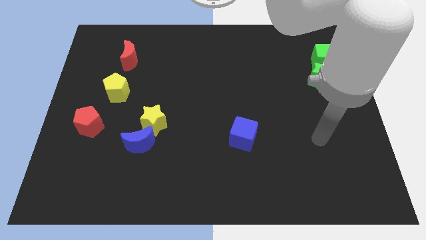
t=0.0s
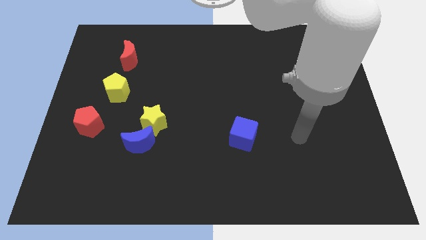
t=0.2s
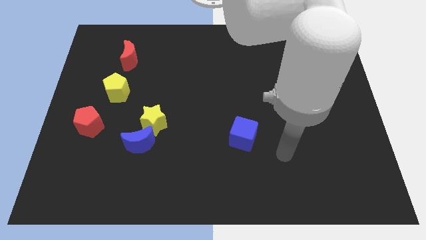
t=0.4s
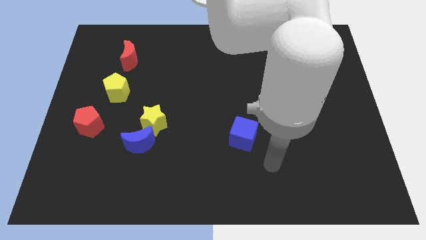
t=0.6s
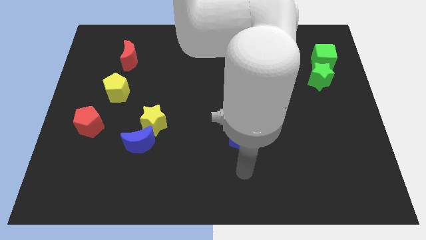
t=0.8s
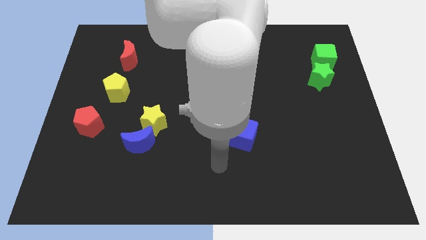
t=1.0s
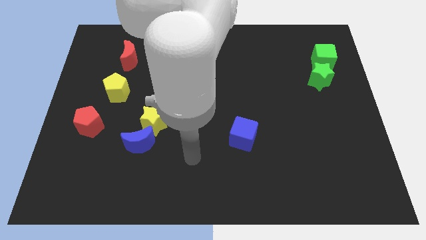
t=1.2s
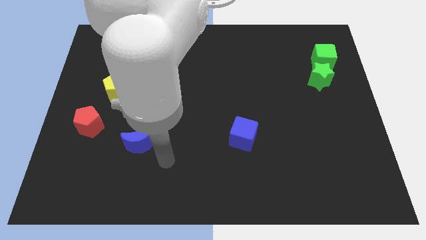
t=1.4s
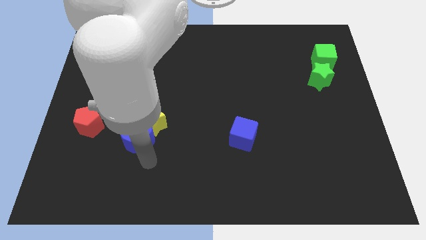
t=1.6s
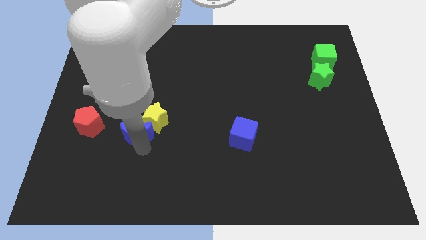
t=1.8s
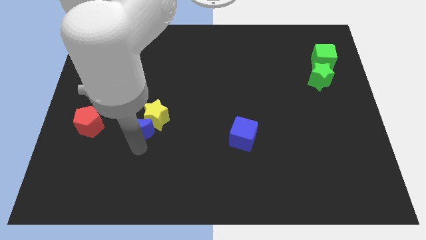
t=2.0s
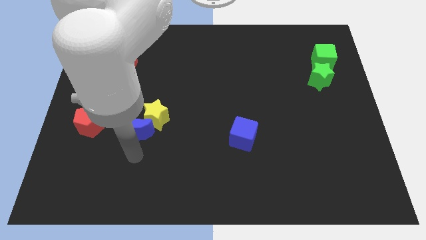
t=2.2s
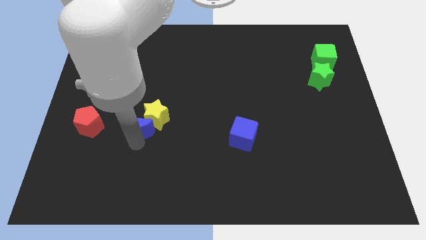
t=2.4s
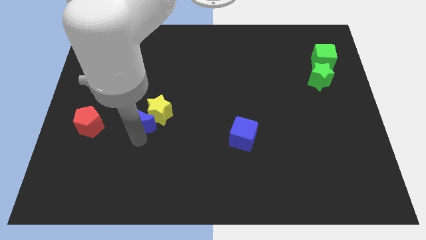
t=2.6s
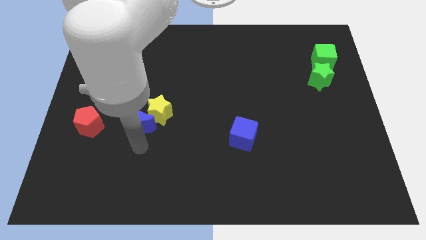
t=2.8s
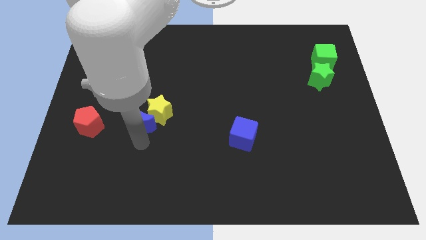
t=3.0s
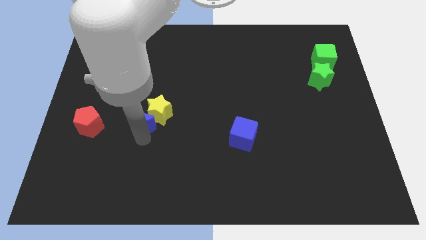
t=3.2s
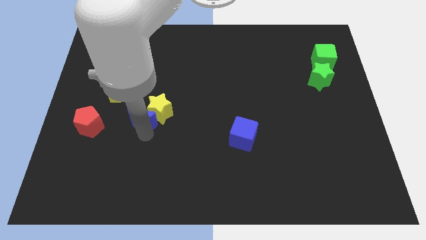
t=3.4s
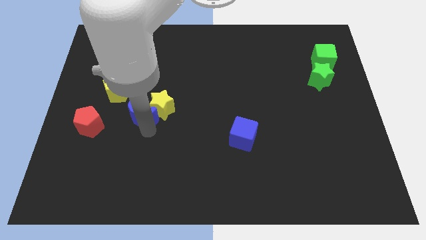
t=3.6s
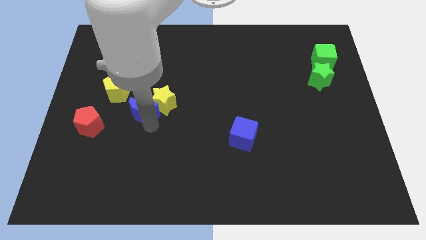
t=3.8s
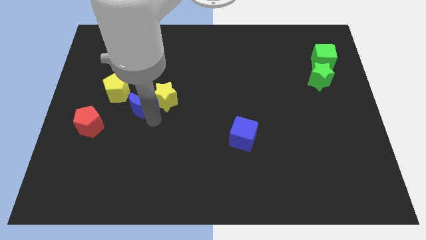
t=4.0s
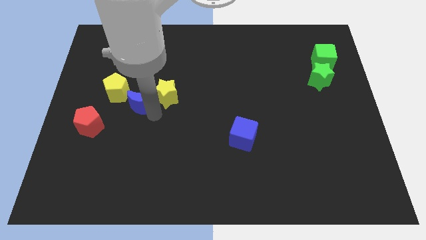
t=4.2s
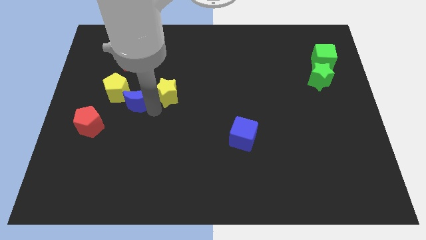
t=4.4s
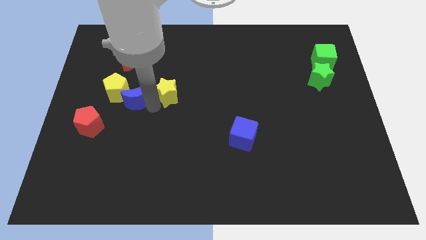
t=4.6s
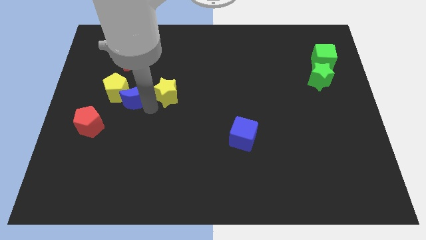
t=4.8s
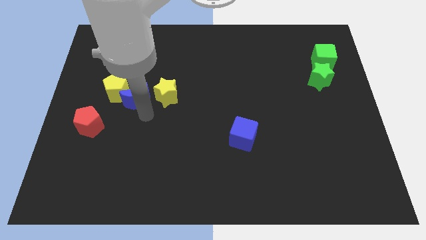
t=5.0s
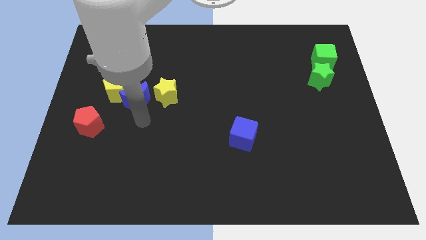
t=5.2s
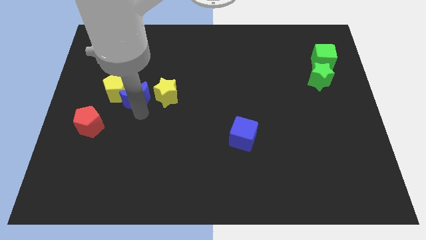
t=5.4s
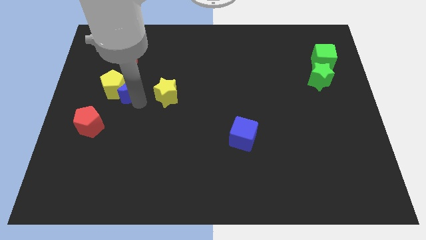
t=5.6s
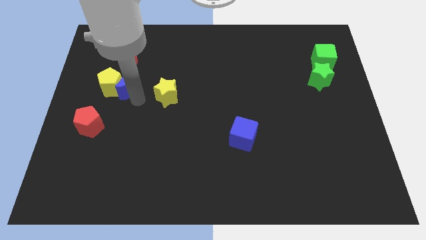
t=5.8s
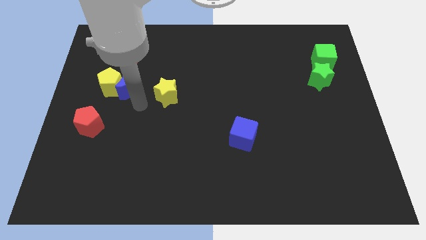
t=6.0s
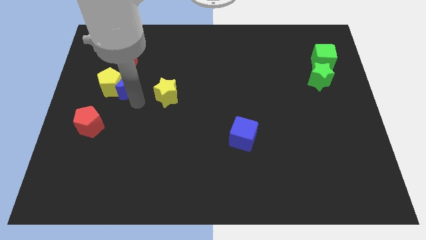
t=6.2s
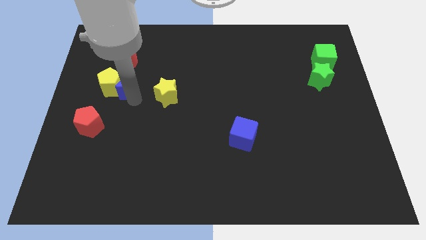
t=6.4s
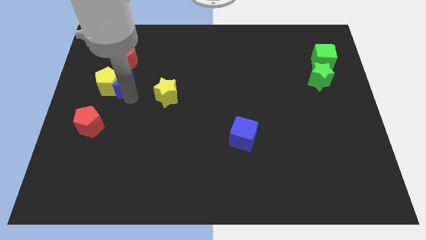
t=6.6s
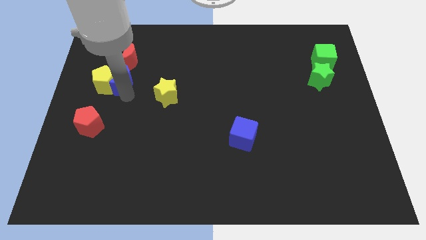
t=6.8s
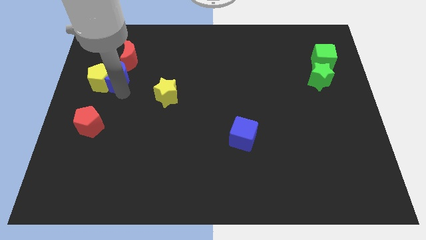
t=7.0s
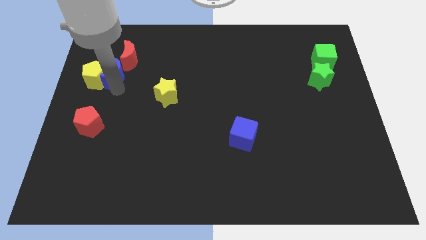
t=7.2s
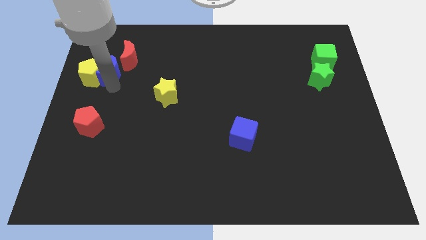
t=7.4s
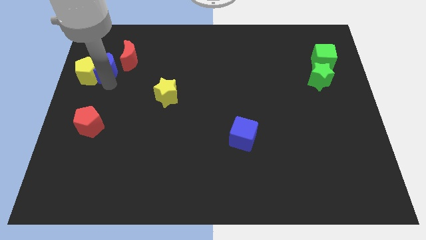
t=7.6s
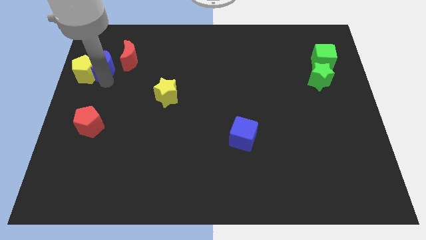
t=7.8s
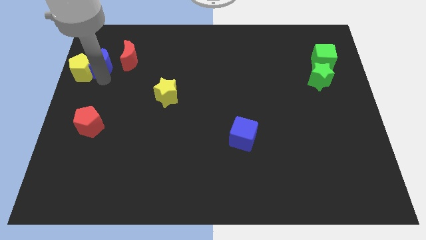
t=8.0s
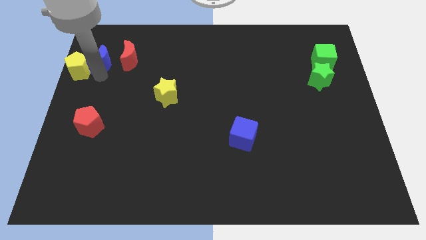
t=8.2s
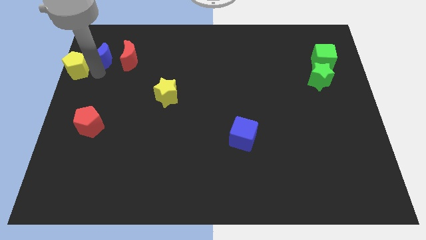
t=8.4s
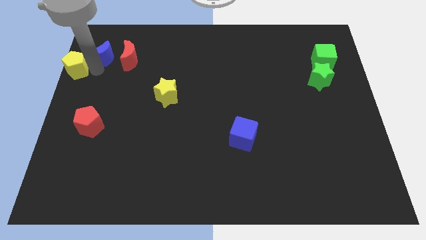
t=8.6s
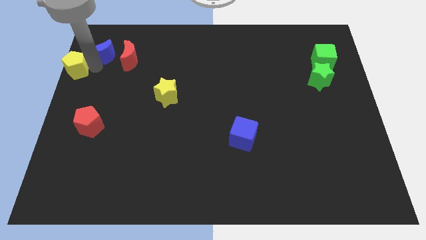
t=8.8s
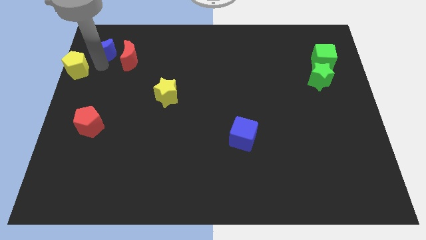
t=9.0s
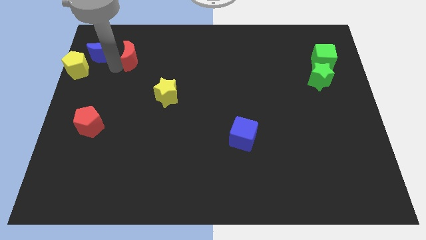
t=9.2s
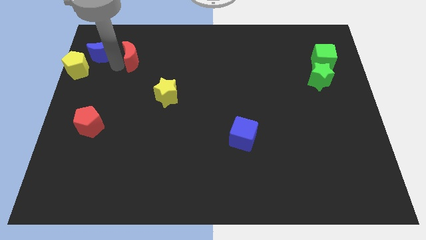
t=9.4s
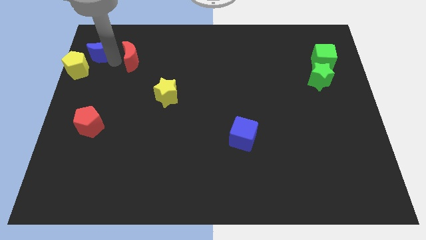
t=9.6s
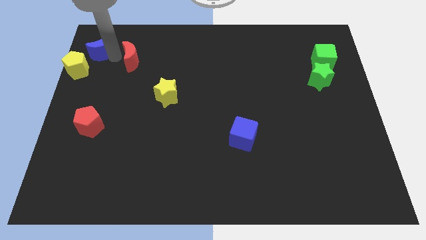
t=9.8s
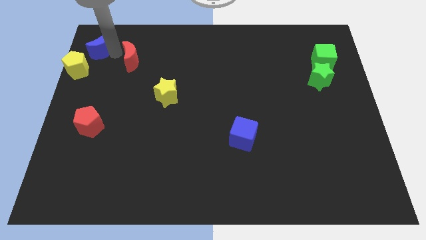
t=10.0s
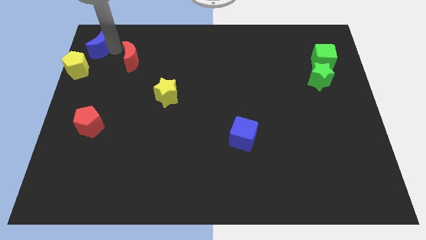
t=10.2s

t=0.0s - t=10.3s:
put the blue moon to the top left corner

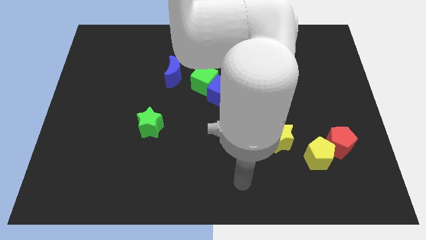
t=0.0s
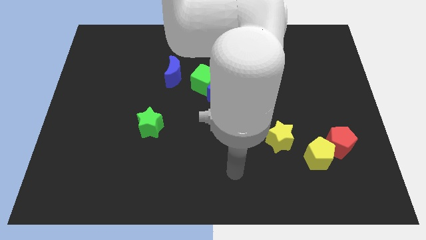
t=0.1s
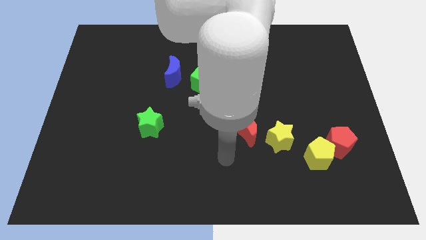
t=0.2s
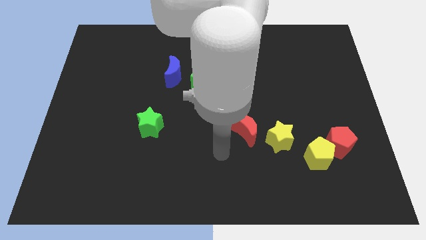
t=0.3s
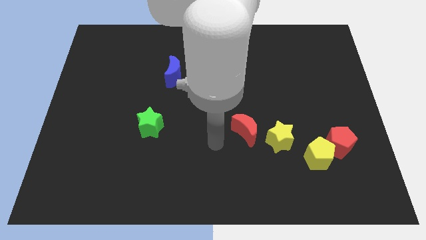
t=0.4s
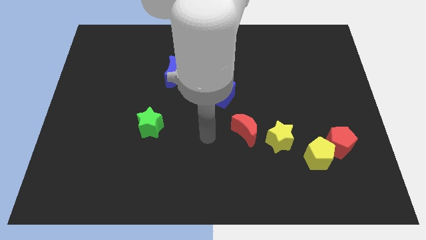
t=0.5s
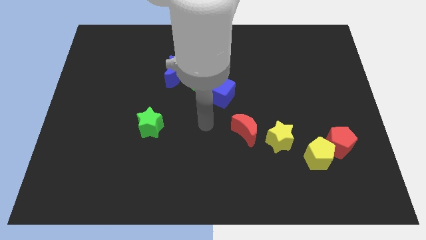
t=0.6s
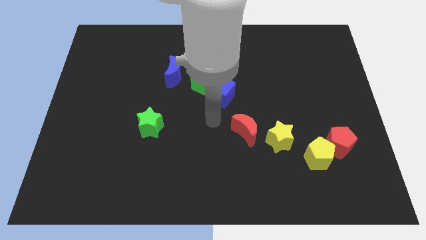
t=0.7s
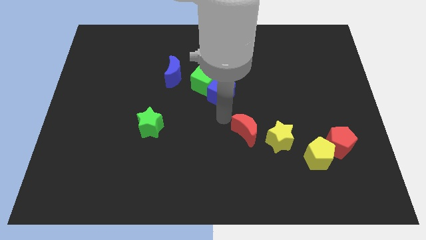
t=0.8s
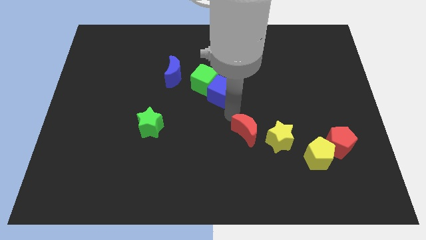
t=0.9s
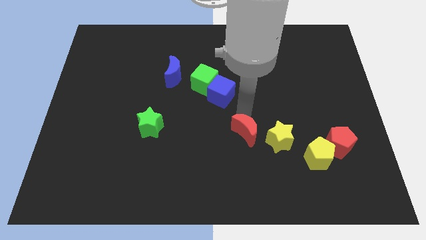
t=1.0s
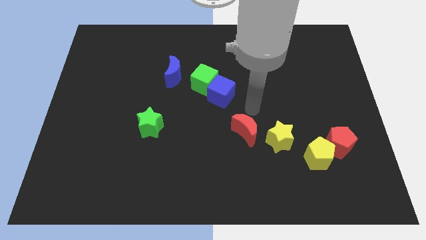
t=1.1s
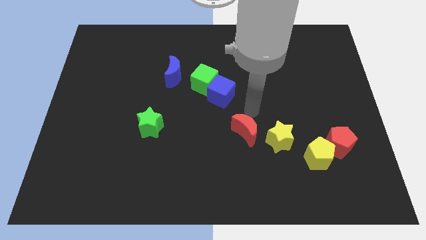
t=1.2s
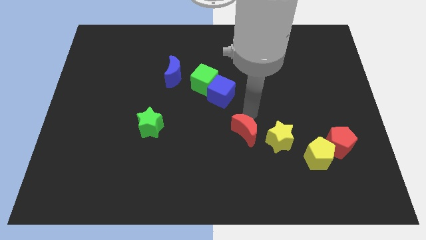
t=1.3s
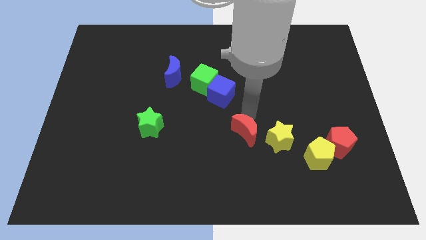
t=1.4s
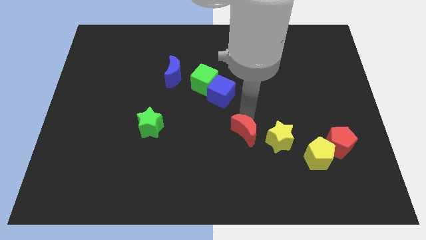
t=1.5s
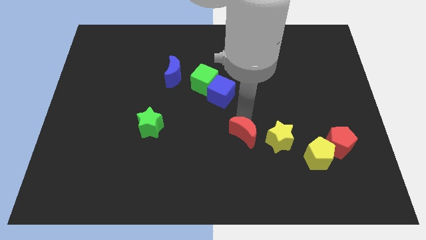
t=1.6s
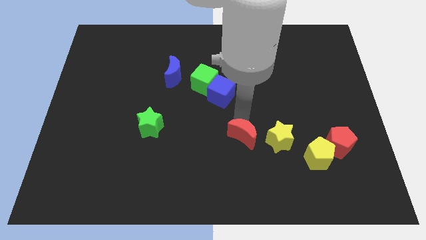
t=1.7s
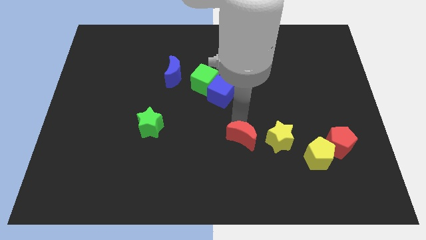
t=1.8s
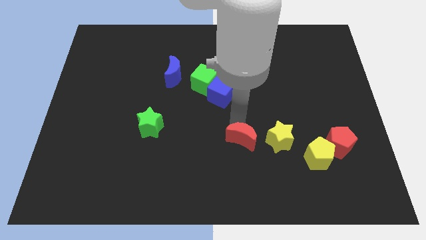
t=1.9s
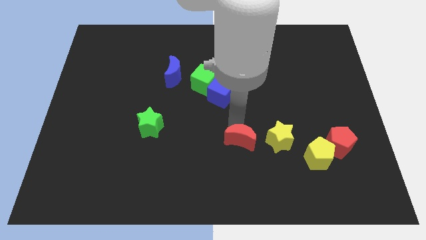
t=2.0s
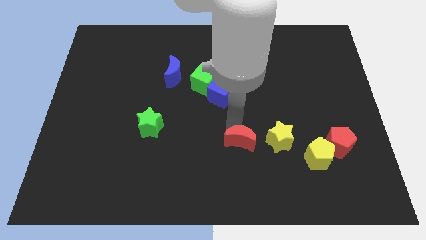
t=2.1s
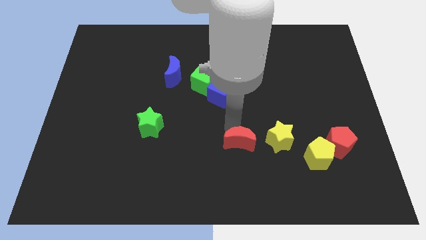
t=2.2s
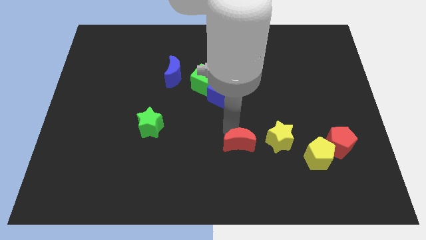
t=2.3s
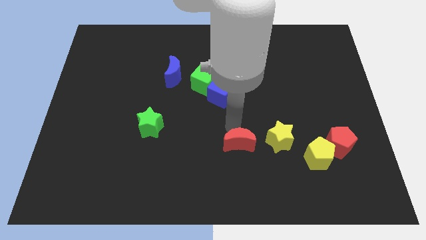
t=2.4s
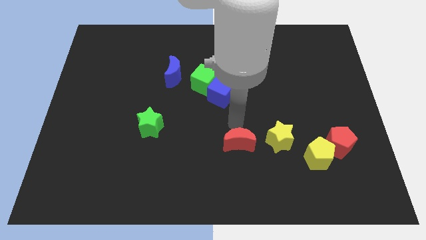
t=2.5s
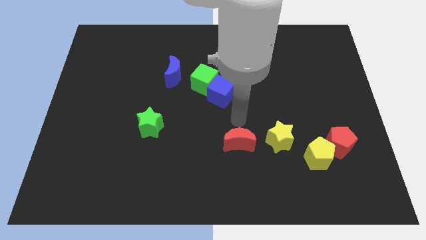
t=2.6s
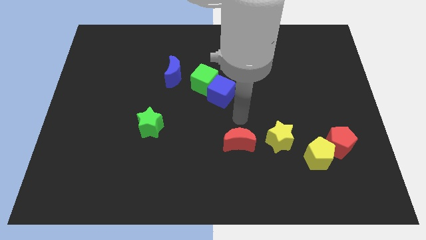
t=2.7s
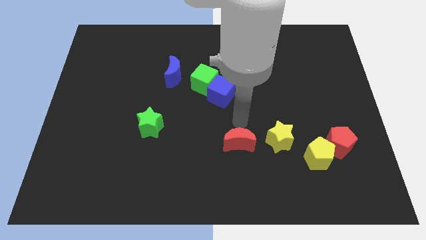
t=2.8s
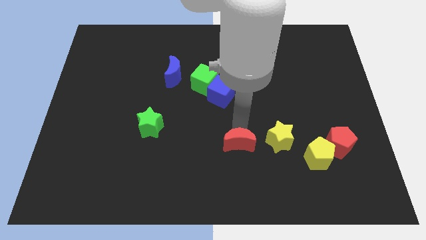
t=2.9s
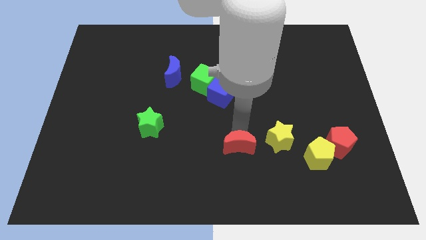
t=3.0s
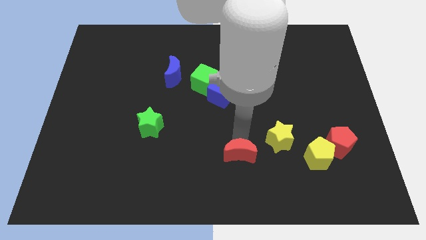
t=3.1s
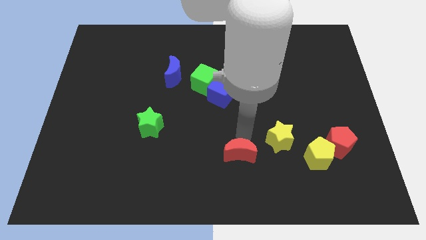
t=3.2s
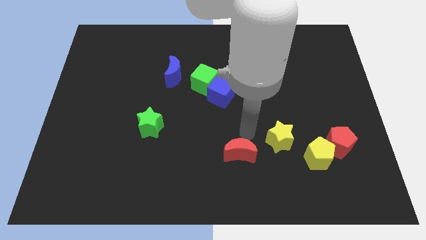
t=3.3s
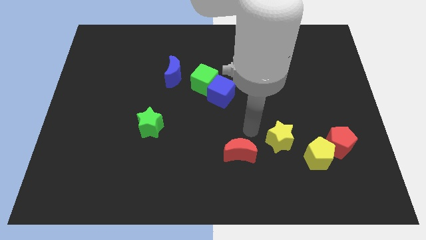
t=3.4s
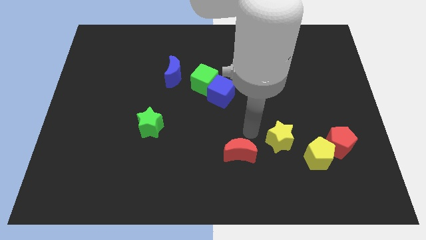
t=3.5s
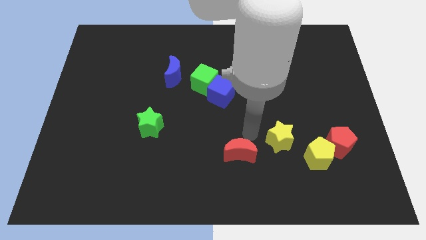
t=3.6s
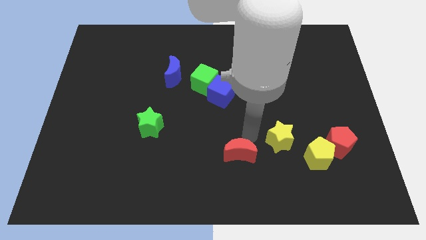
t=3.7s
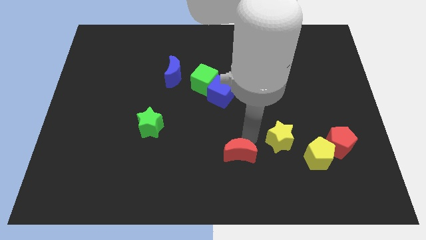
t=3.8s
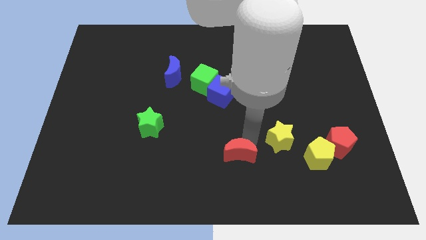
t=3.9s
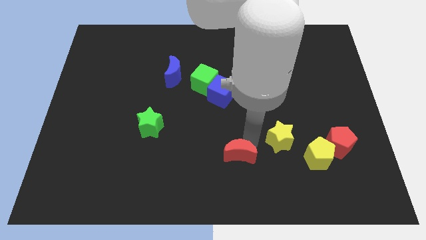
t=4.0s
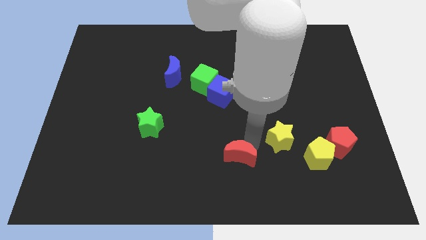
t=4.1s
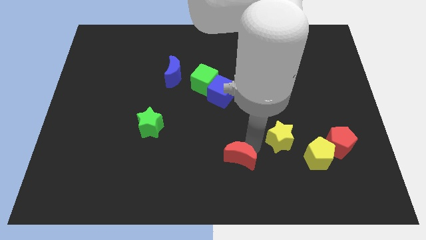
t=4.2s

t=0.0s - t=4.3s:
move the red moon to the bottom
